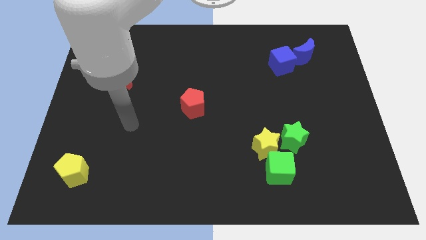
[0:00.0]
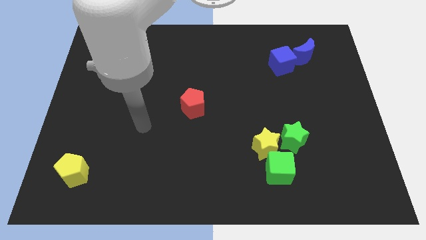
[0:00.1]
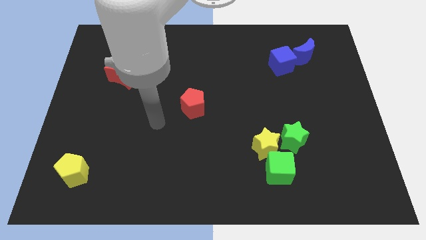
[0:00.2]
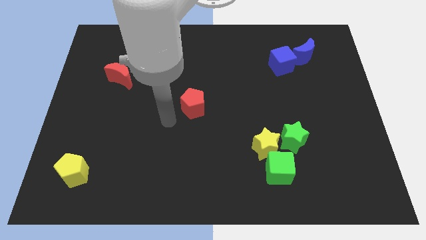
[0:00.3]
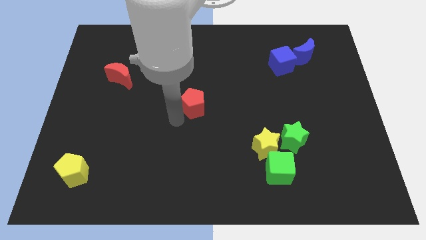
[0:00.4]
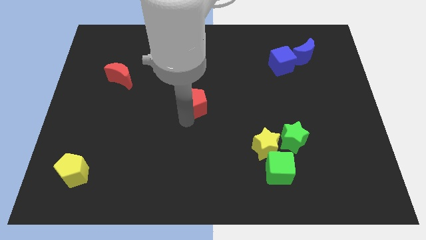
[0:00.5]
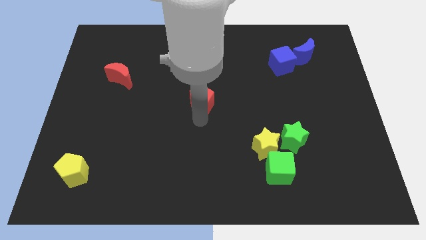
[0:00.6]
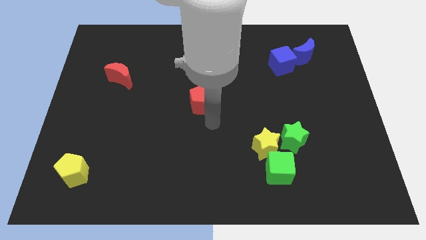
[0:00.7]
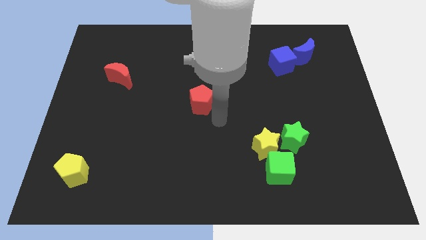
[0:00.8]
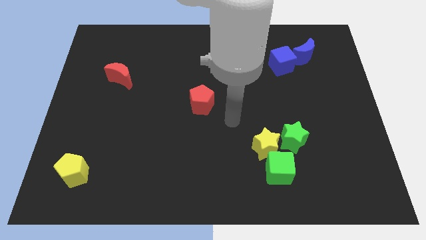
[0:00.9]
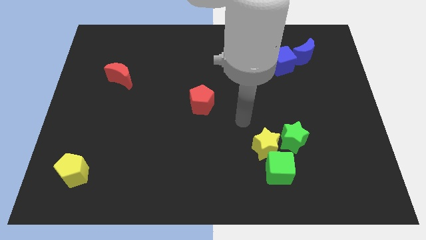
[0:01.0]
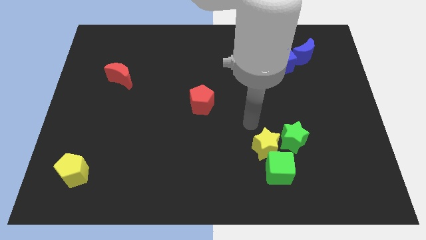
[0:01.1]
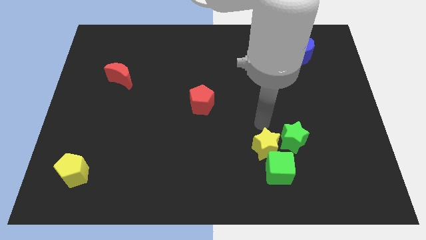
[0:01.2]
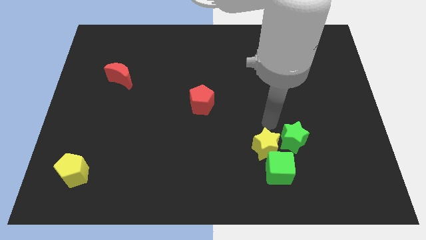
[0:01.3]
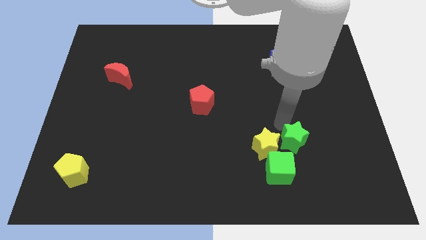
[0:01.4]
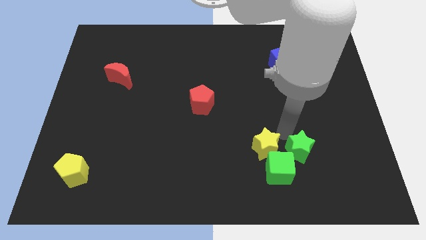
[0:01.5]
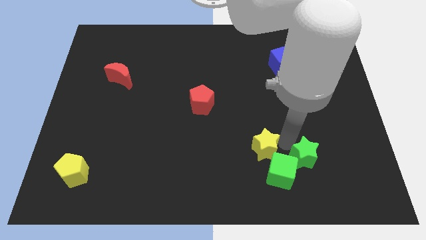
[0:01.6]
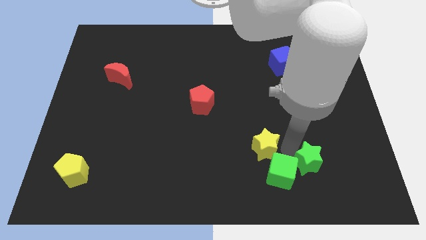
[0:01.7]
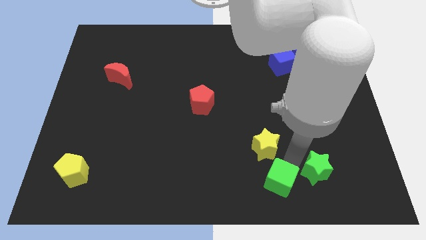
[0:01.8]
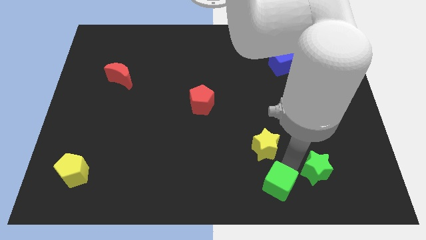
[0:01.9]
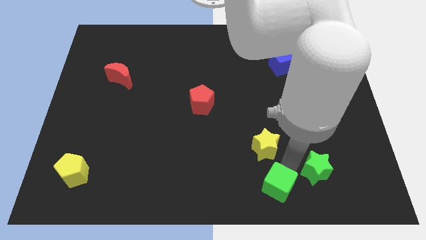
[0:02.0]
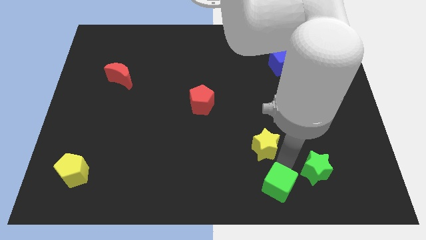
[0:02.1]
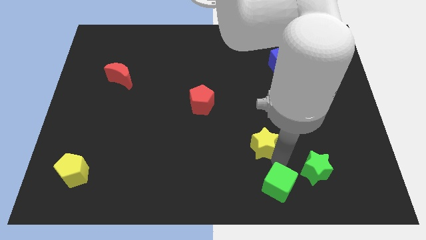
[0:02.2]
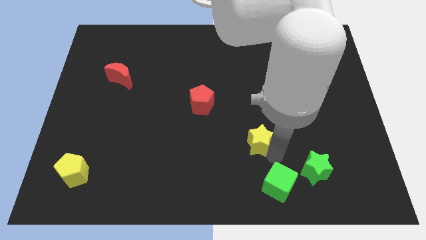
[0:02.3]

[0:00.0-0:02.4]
separate the yellow star from the green cube and green star

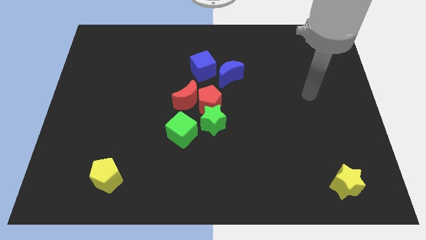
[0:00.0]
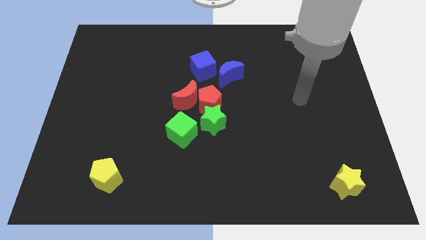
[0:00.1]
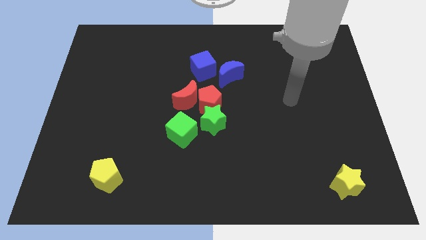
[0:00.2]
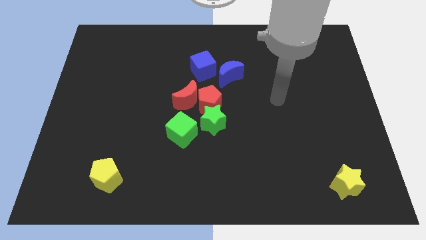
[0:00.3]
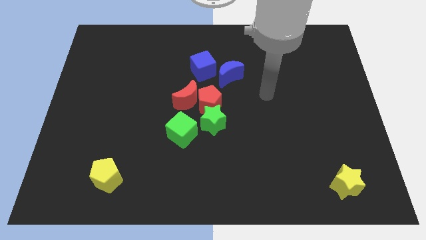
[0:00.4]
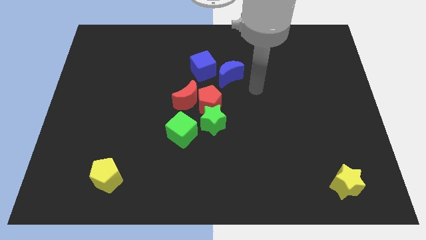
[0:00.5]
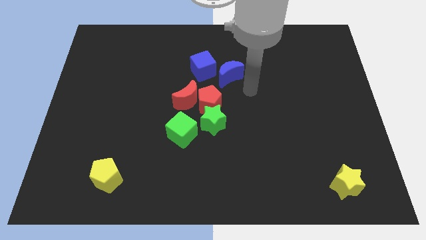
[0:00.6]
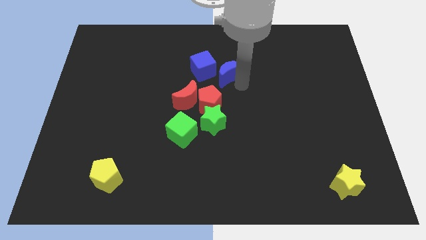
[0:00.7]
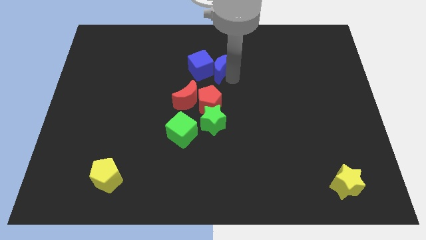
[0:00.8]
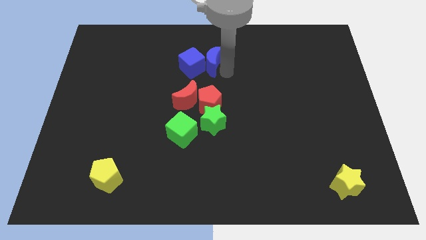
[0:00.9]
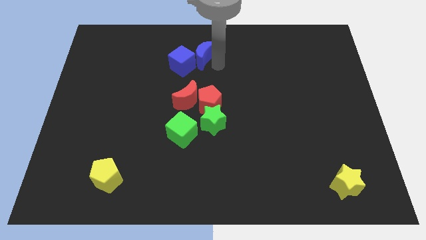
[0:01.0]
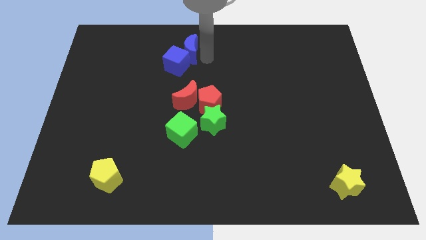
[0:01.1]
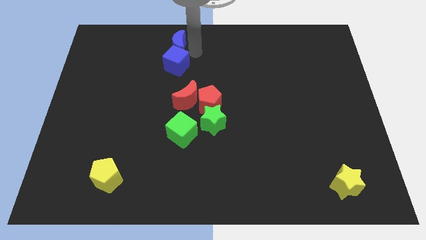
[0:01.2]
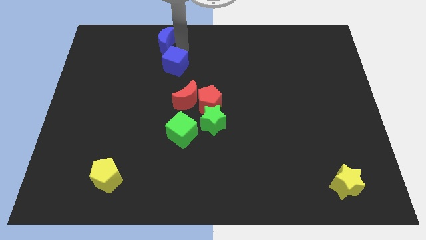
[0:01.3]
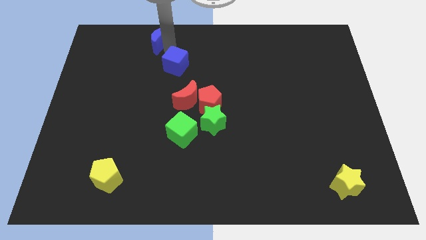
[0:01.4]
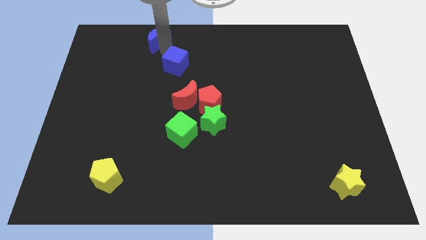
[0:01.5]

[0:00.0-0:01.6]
move the blue cube away from the blue moon

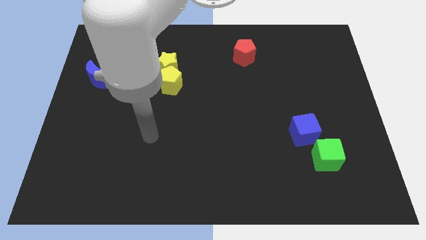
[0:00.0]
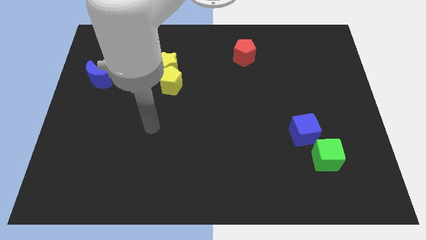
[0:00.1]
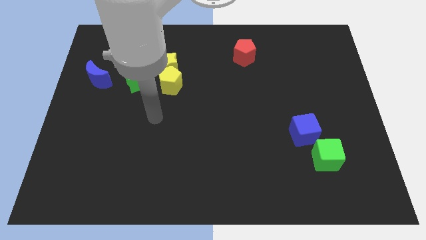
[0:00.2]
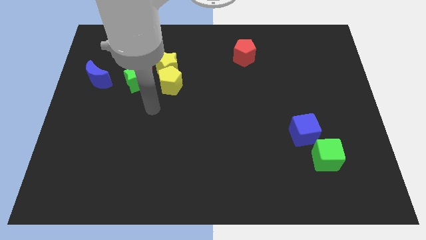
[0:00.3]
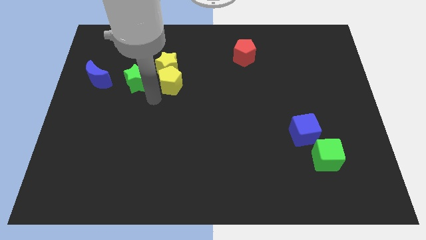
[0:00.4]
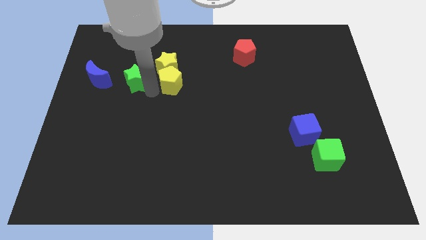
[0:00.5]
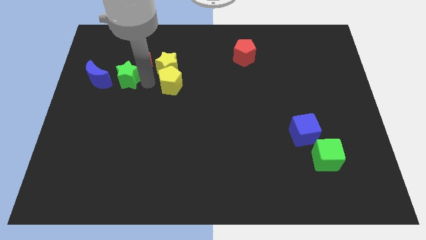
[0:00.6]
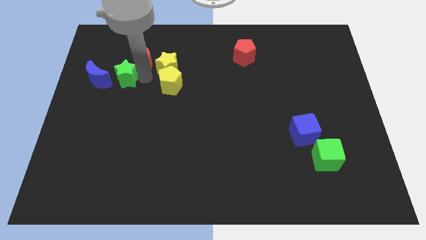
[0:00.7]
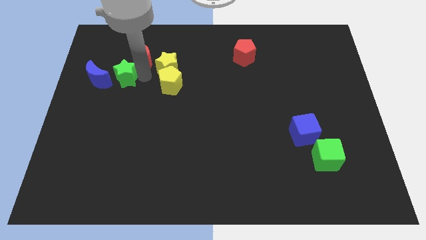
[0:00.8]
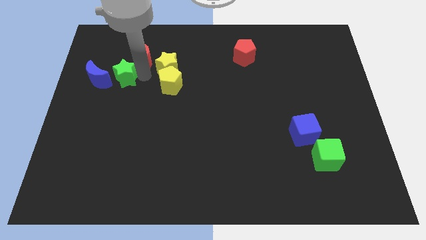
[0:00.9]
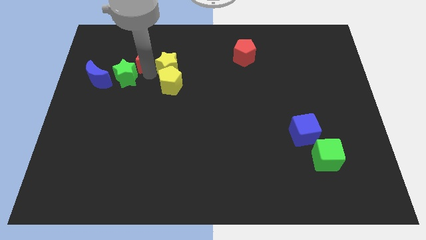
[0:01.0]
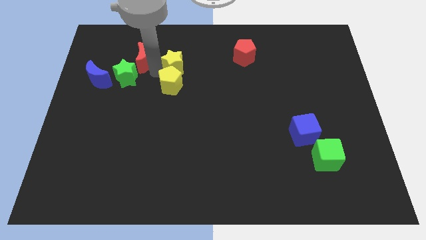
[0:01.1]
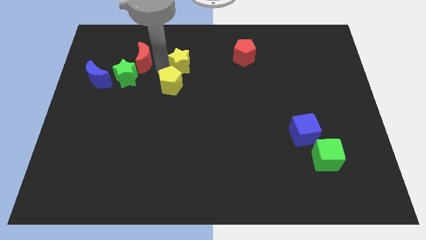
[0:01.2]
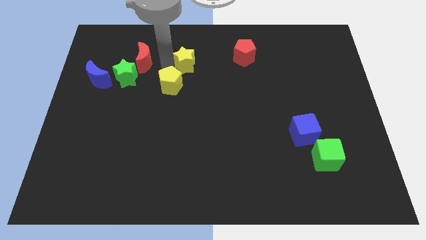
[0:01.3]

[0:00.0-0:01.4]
pull the yellow star apart from the group

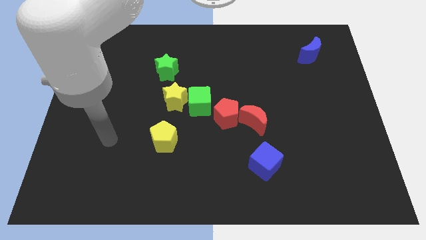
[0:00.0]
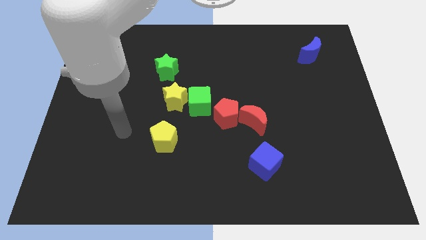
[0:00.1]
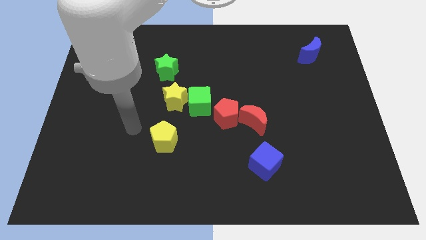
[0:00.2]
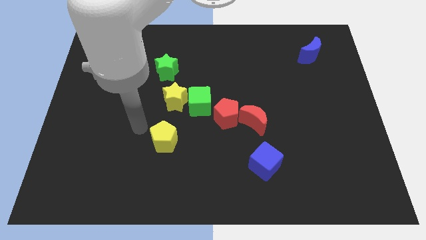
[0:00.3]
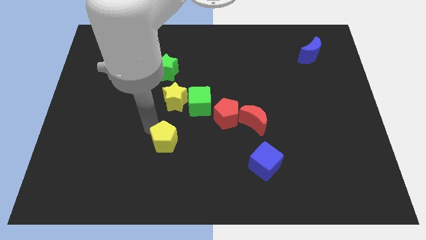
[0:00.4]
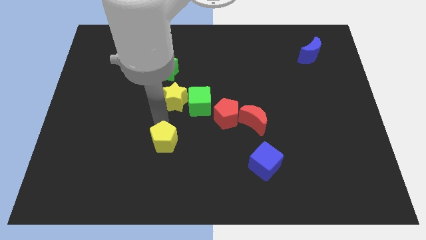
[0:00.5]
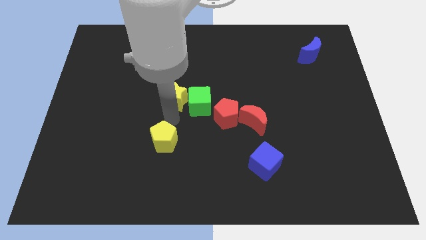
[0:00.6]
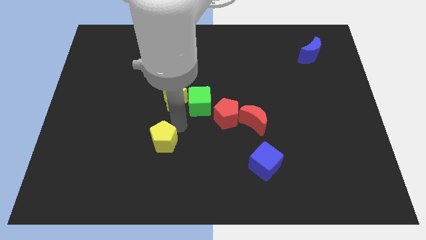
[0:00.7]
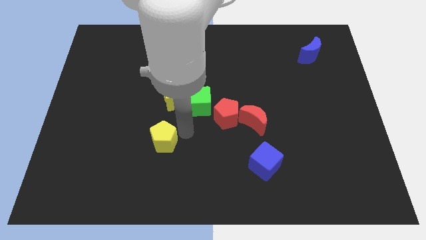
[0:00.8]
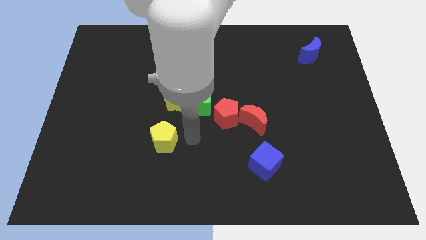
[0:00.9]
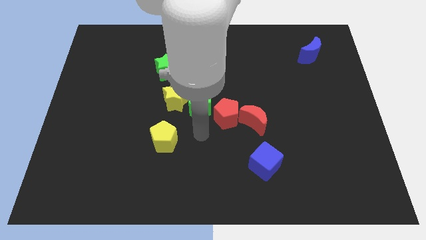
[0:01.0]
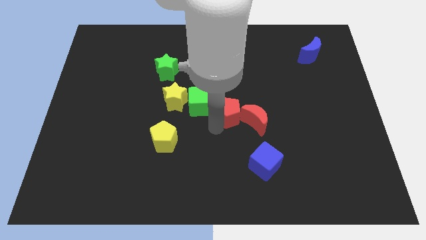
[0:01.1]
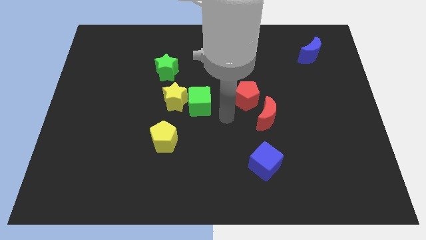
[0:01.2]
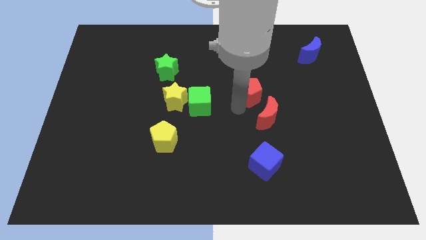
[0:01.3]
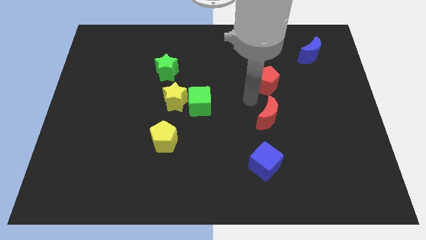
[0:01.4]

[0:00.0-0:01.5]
separate the red moon from the red pentagon

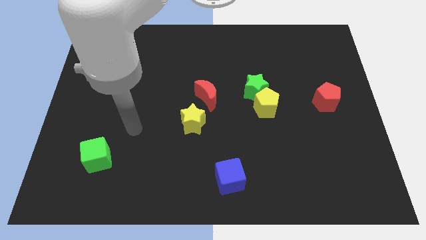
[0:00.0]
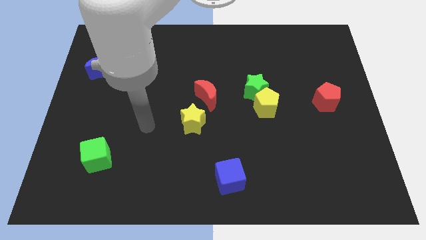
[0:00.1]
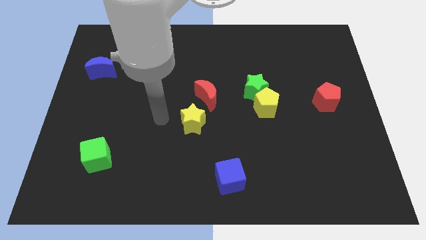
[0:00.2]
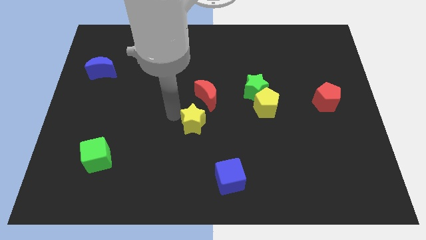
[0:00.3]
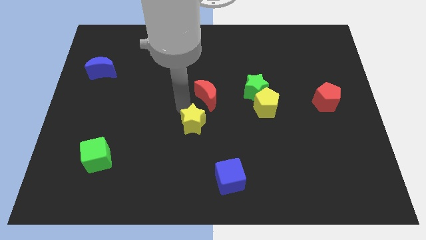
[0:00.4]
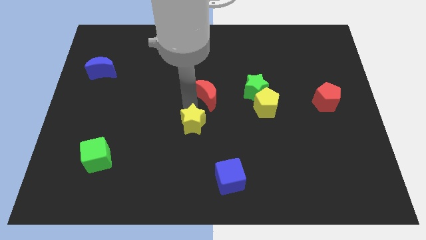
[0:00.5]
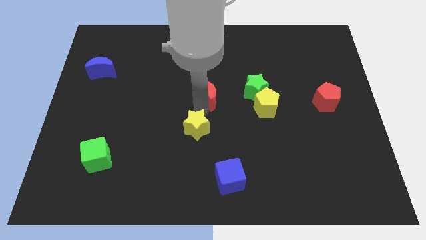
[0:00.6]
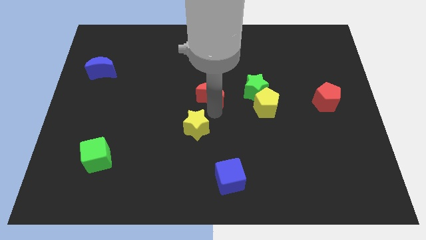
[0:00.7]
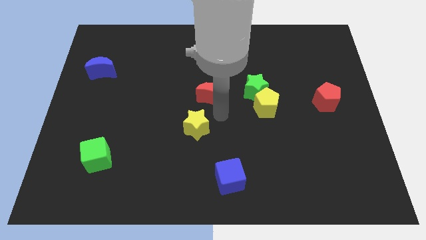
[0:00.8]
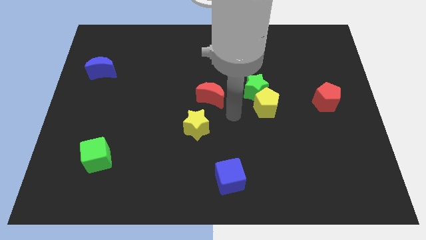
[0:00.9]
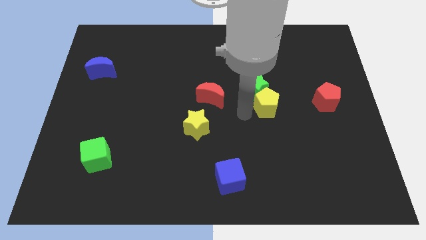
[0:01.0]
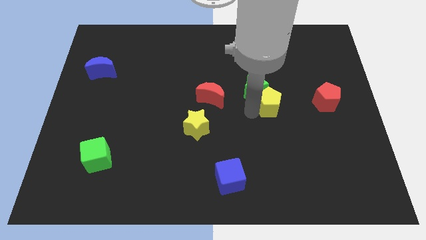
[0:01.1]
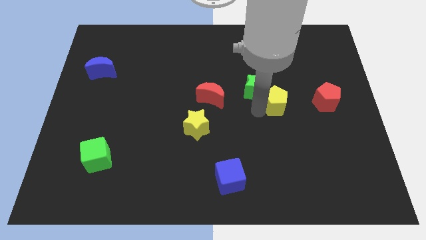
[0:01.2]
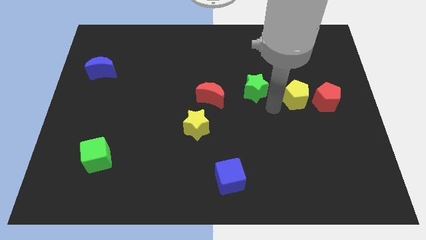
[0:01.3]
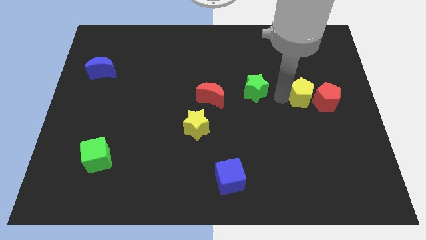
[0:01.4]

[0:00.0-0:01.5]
separate the green star from the yellow pentagon

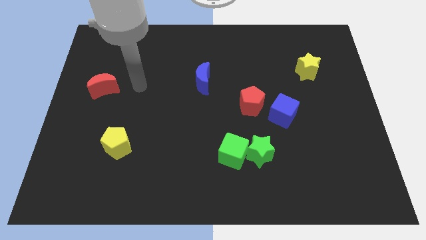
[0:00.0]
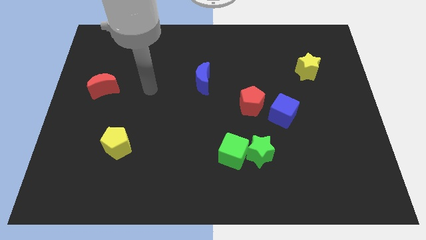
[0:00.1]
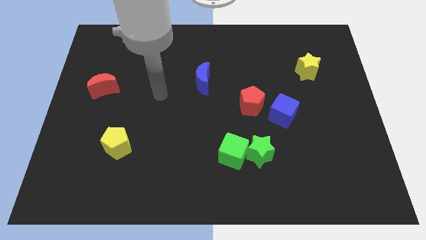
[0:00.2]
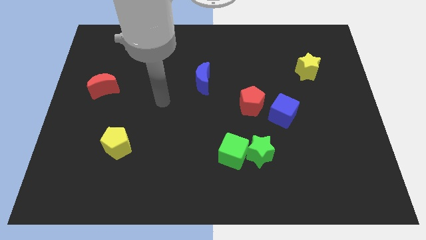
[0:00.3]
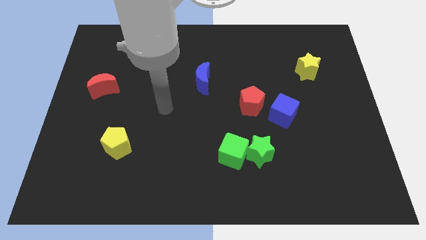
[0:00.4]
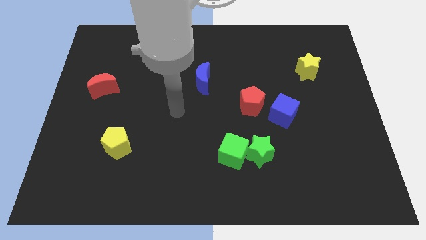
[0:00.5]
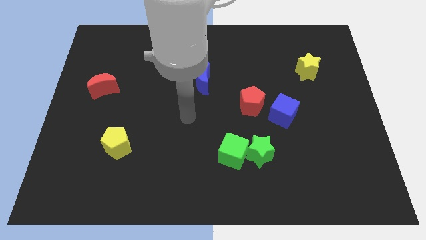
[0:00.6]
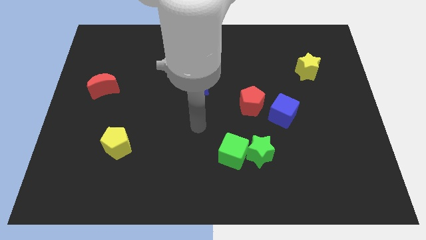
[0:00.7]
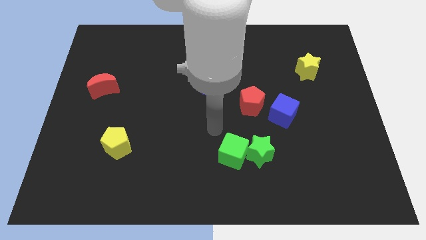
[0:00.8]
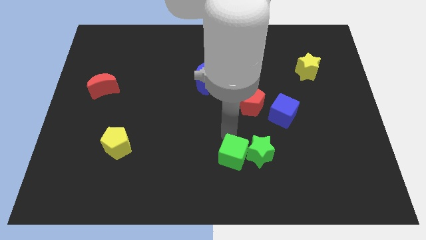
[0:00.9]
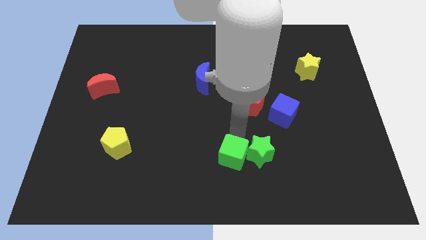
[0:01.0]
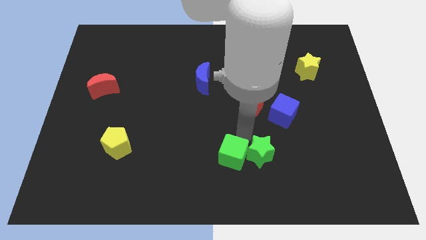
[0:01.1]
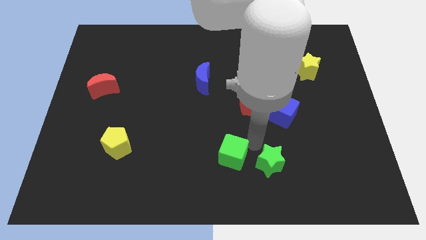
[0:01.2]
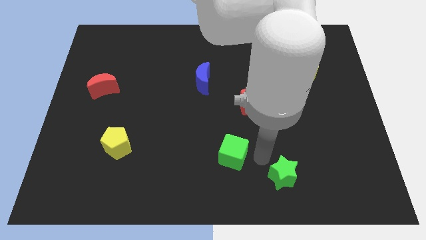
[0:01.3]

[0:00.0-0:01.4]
move the green cube away from the green star
